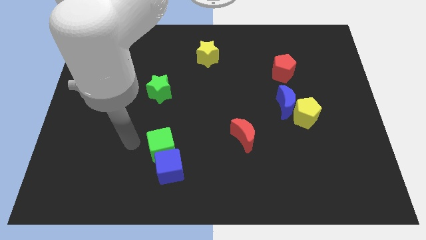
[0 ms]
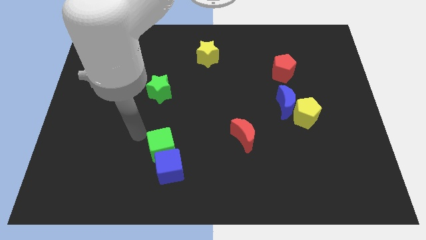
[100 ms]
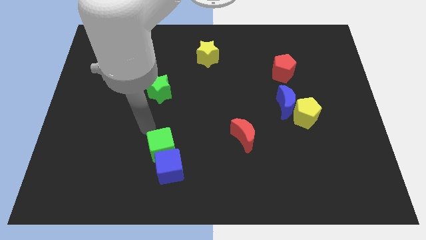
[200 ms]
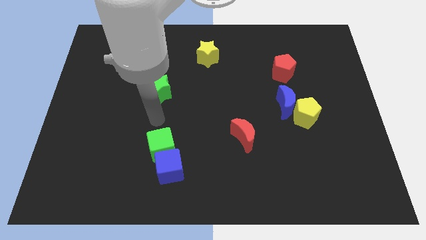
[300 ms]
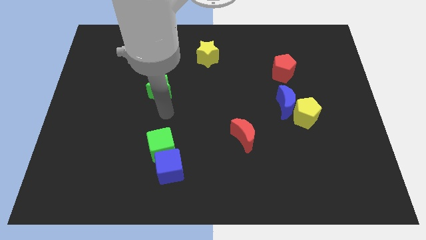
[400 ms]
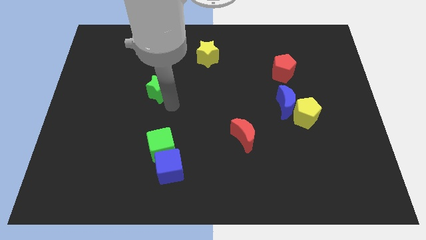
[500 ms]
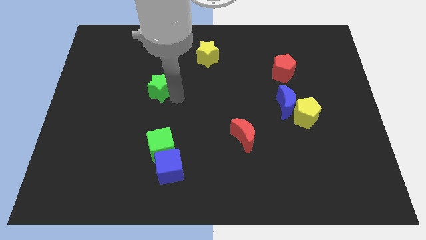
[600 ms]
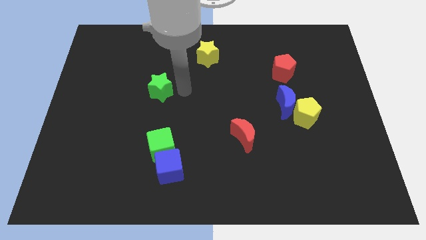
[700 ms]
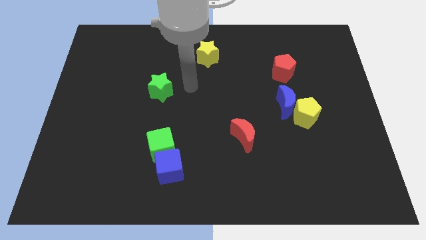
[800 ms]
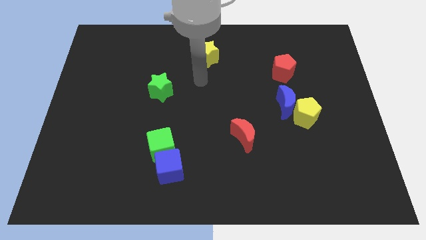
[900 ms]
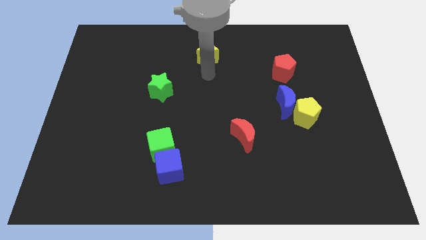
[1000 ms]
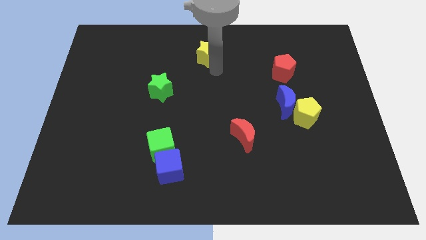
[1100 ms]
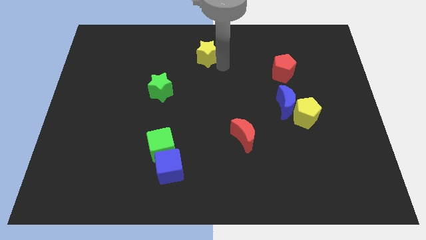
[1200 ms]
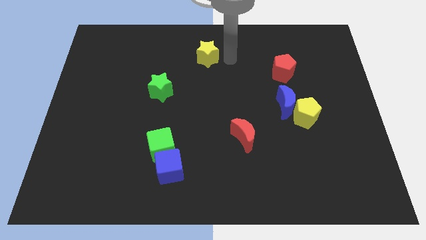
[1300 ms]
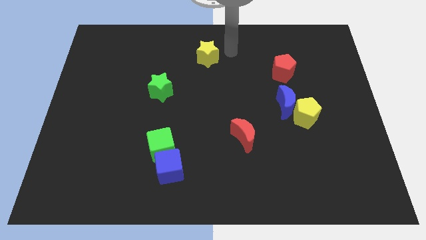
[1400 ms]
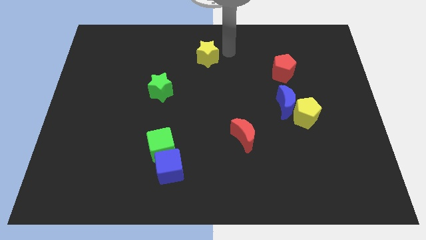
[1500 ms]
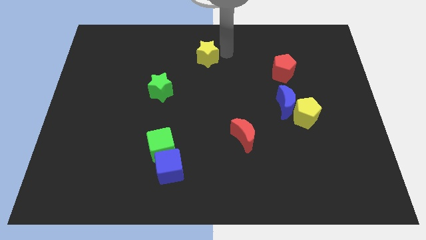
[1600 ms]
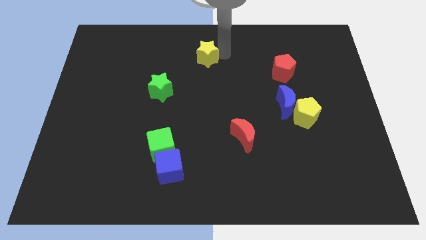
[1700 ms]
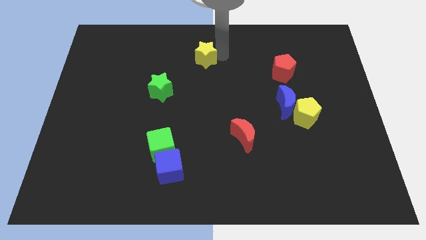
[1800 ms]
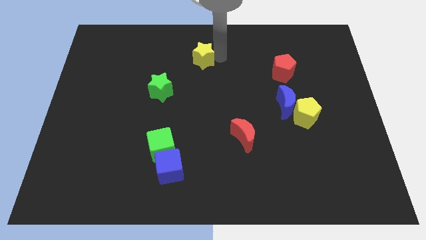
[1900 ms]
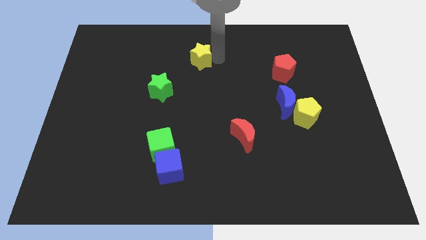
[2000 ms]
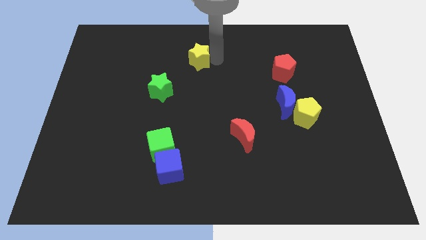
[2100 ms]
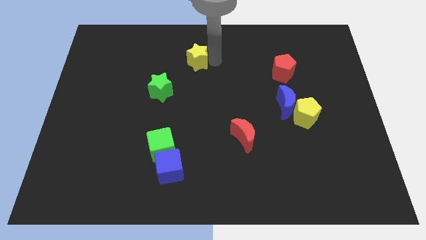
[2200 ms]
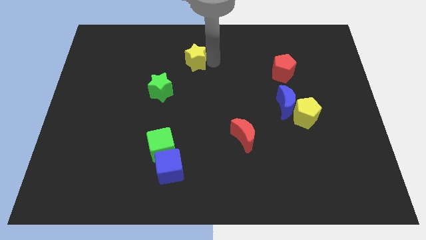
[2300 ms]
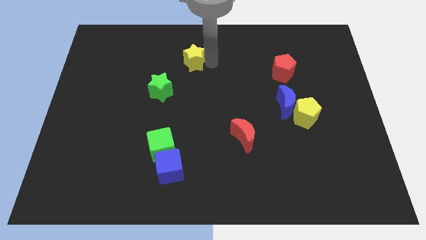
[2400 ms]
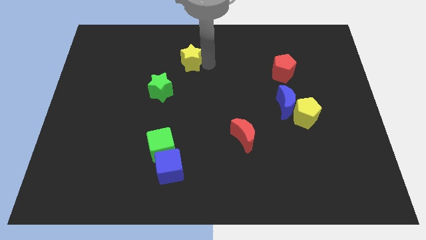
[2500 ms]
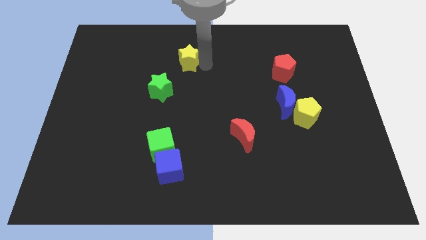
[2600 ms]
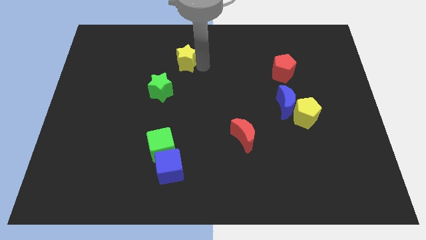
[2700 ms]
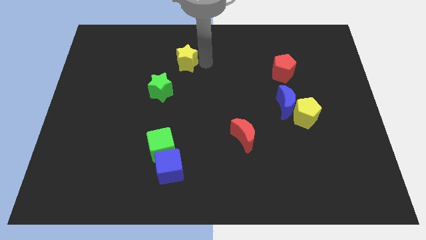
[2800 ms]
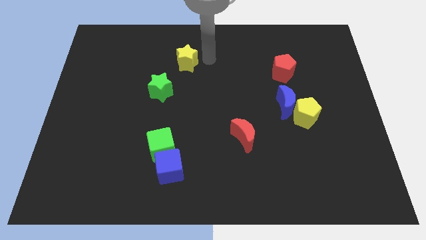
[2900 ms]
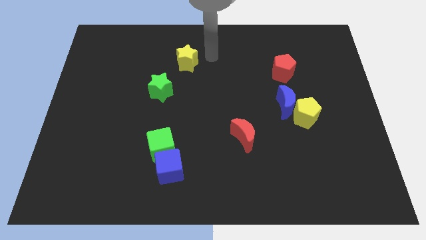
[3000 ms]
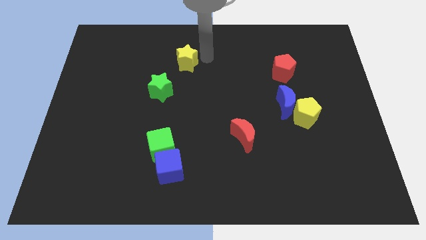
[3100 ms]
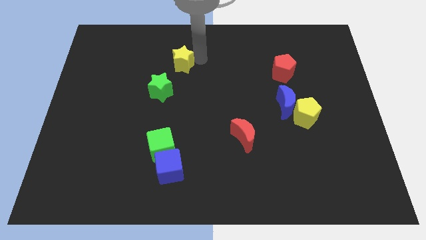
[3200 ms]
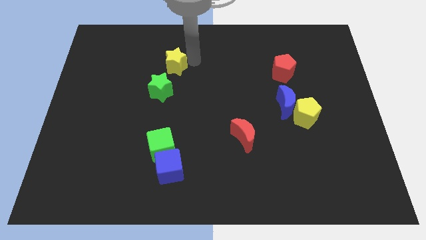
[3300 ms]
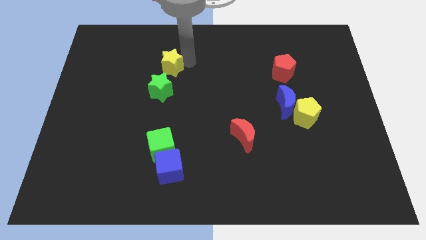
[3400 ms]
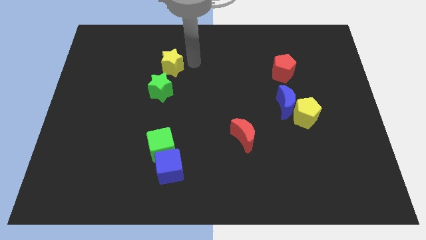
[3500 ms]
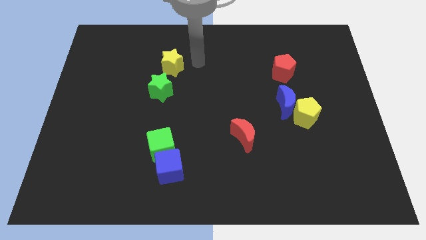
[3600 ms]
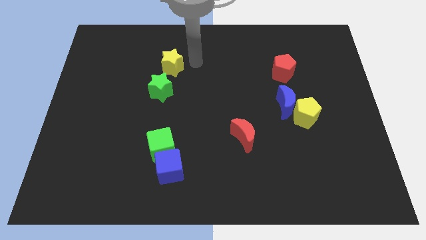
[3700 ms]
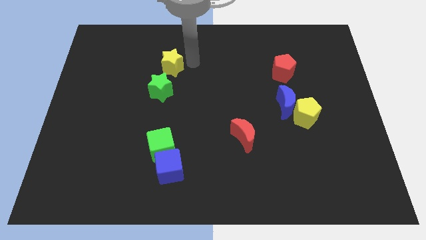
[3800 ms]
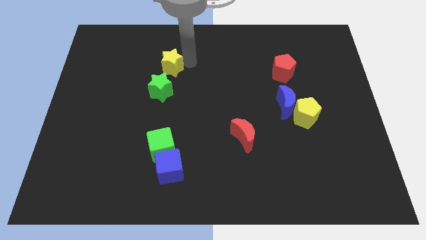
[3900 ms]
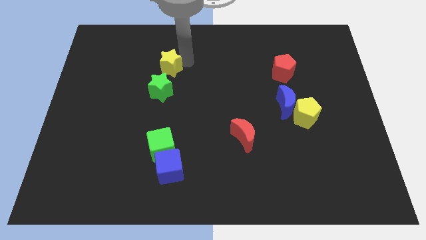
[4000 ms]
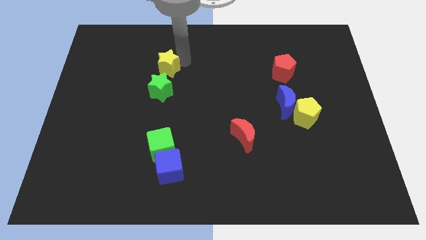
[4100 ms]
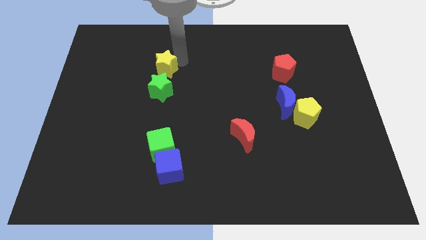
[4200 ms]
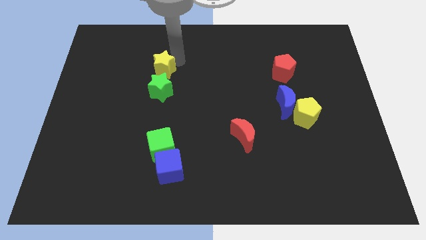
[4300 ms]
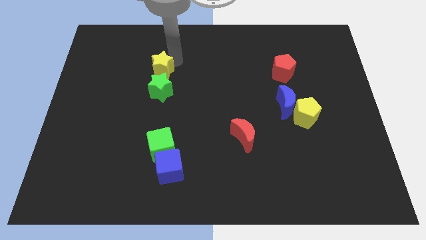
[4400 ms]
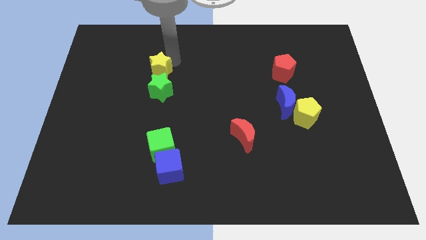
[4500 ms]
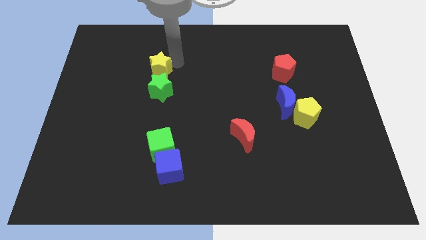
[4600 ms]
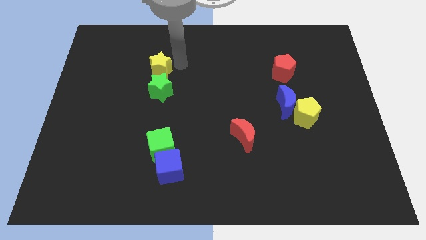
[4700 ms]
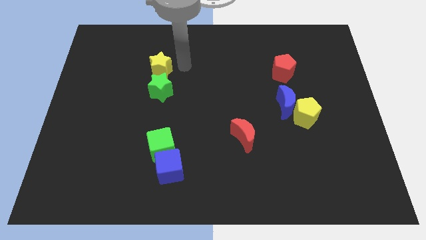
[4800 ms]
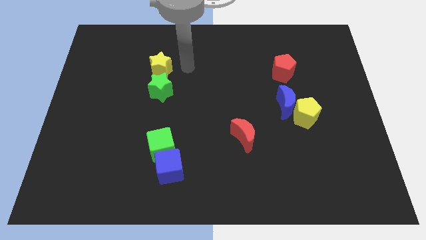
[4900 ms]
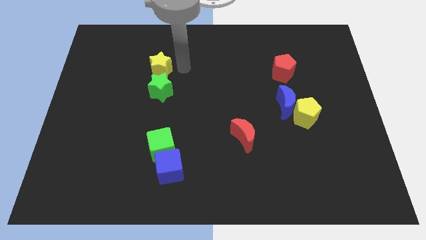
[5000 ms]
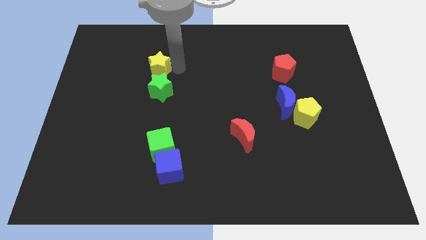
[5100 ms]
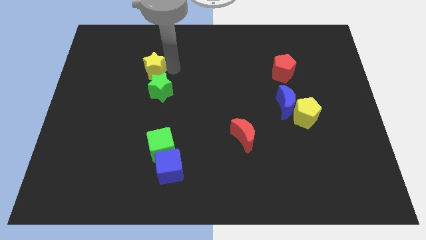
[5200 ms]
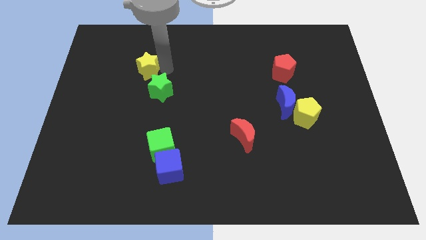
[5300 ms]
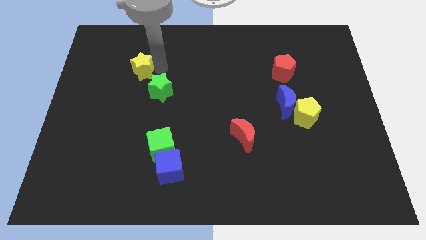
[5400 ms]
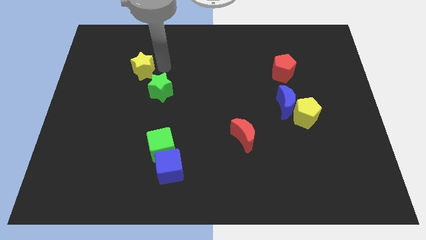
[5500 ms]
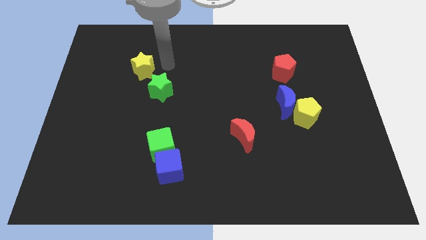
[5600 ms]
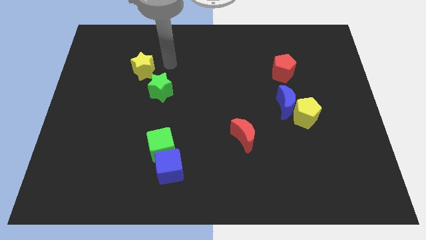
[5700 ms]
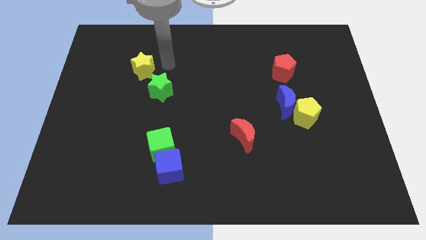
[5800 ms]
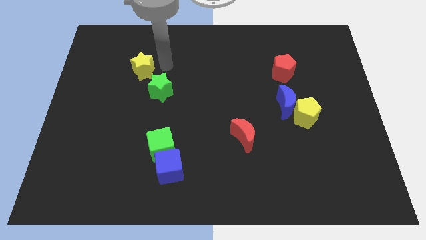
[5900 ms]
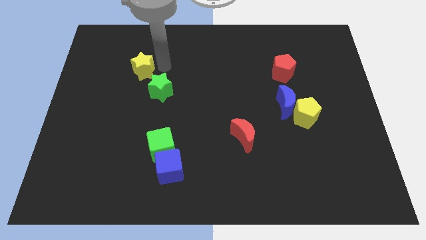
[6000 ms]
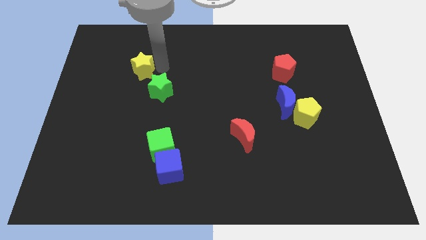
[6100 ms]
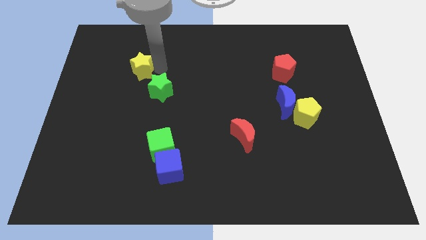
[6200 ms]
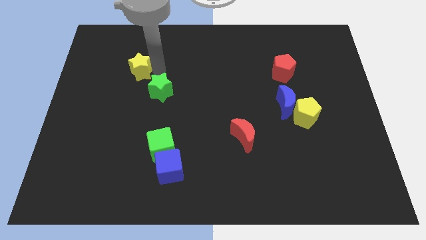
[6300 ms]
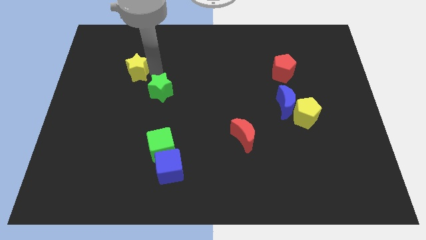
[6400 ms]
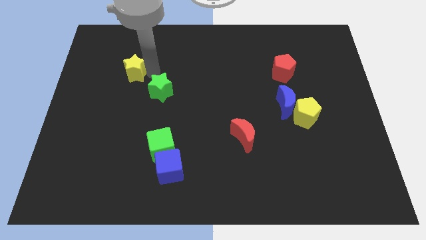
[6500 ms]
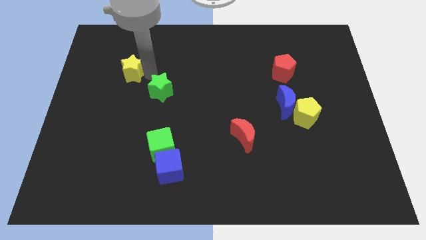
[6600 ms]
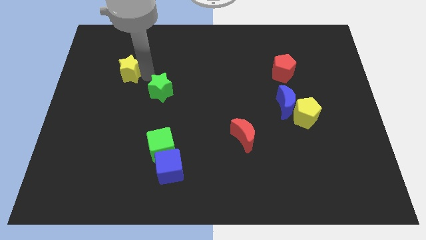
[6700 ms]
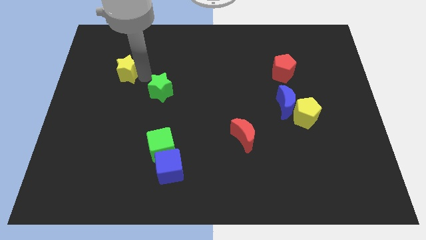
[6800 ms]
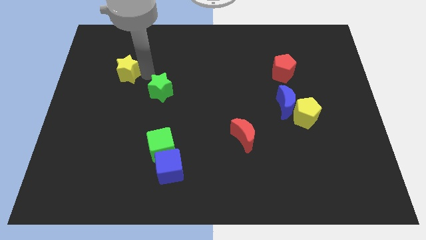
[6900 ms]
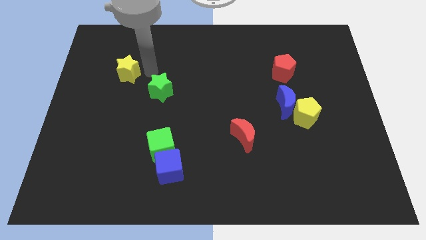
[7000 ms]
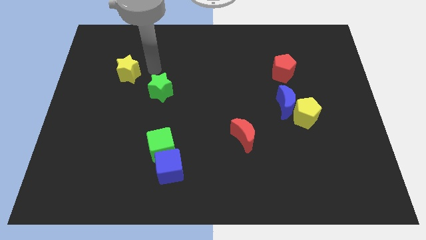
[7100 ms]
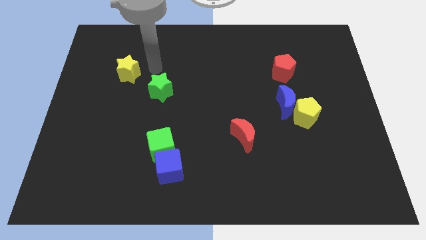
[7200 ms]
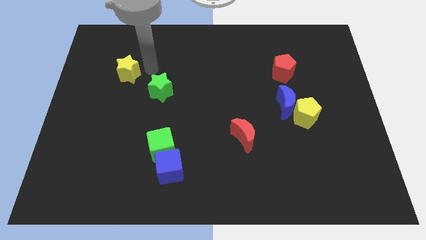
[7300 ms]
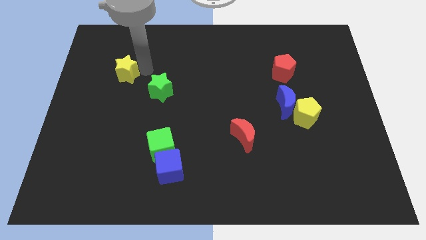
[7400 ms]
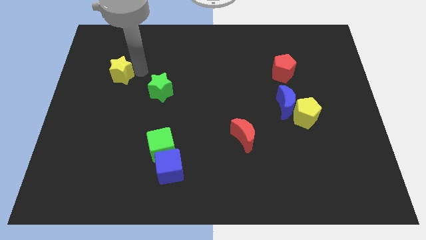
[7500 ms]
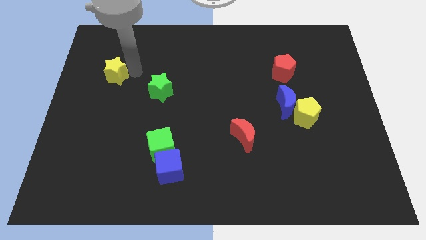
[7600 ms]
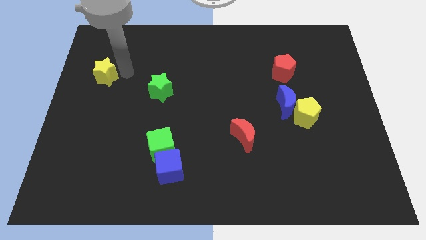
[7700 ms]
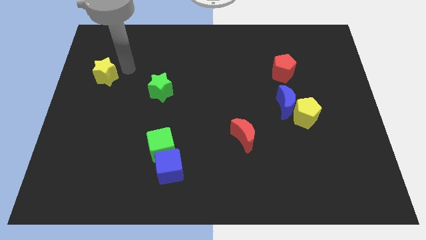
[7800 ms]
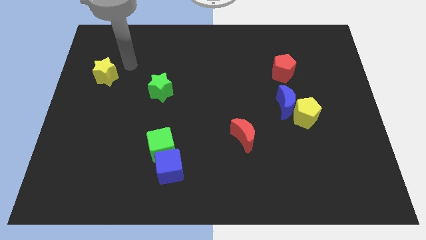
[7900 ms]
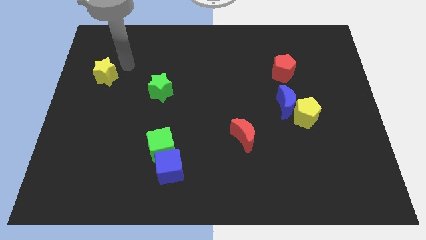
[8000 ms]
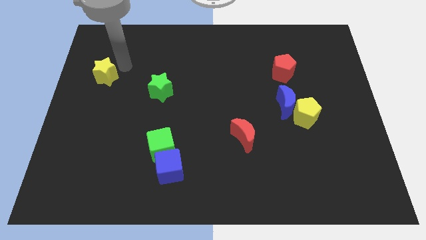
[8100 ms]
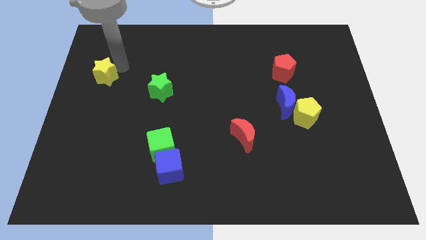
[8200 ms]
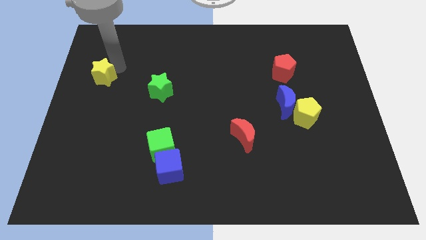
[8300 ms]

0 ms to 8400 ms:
put the yellow star to the left side of the board
